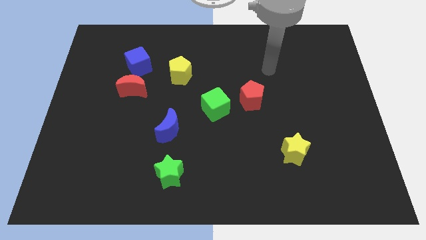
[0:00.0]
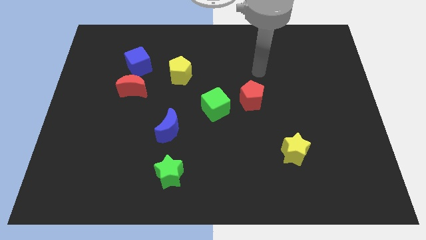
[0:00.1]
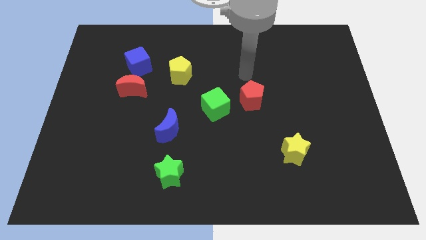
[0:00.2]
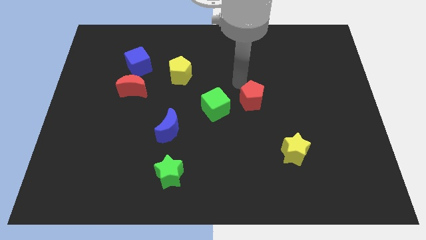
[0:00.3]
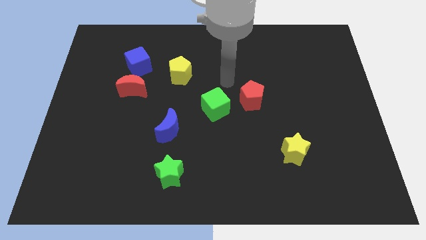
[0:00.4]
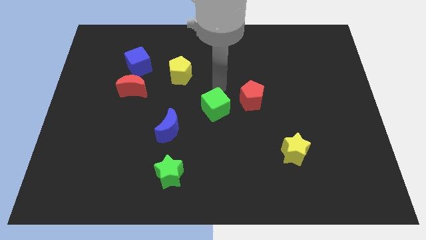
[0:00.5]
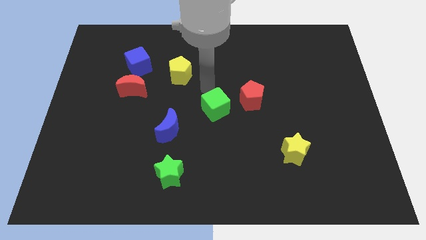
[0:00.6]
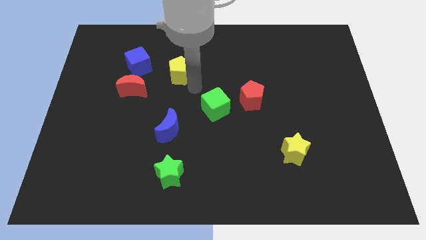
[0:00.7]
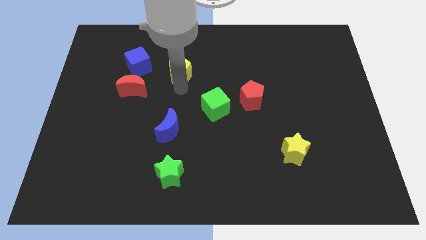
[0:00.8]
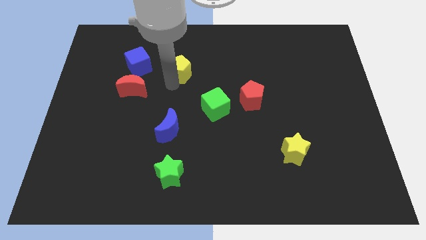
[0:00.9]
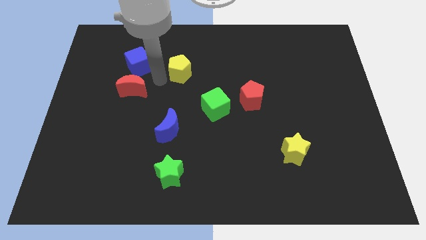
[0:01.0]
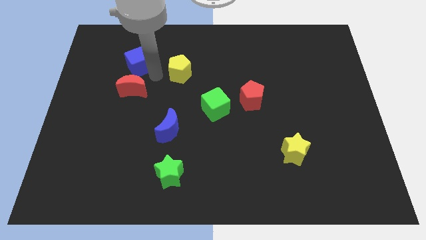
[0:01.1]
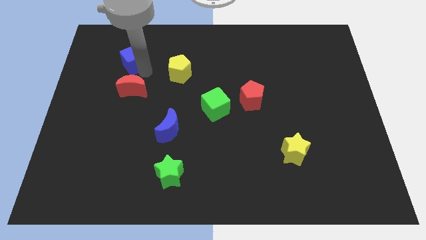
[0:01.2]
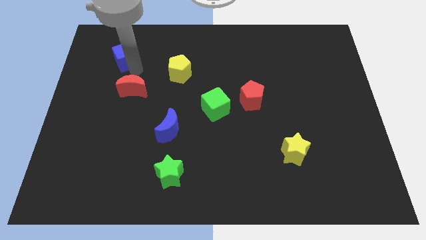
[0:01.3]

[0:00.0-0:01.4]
pull the red moon apart from the blue cube

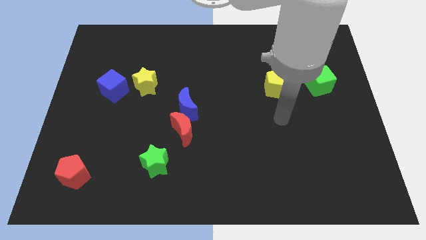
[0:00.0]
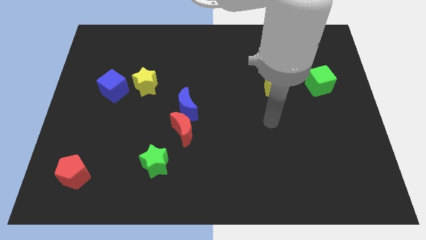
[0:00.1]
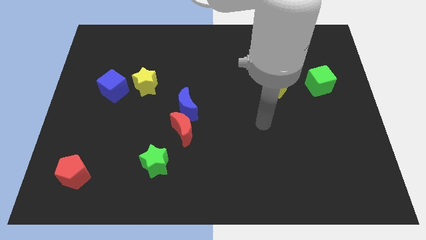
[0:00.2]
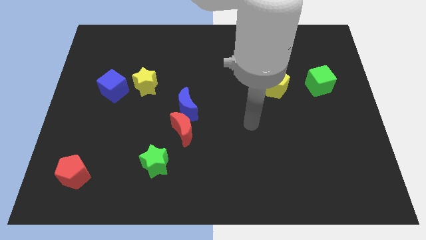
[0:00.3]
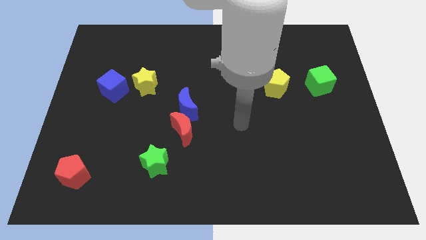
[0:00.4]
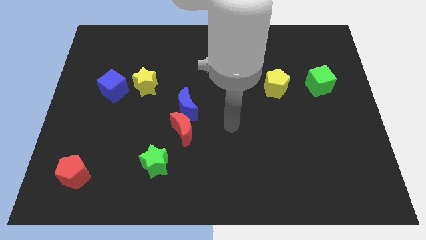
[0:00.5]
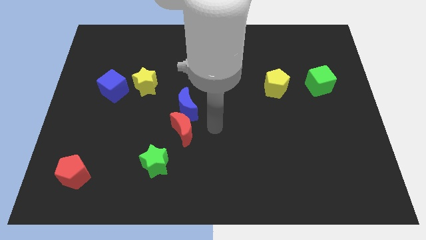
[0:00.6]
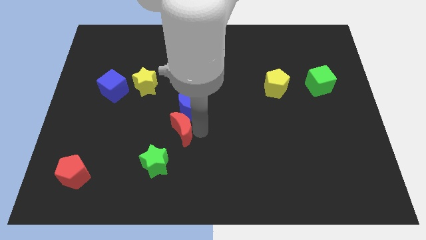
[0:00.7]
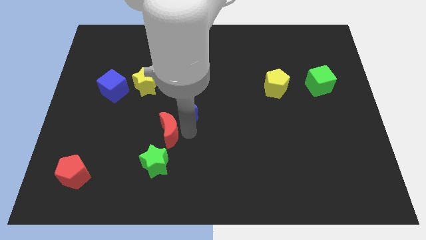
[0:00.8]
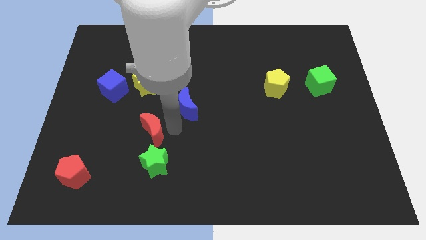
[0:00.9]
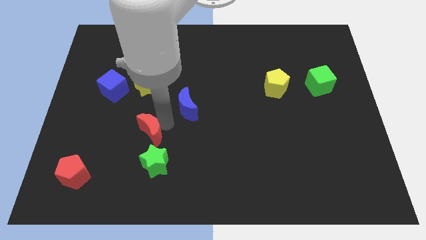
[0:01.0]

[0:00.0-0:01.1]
separate the blue moon from the red moon

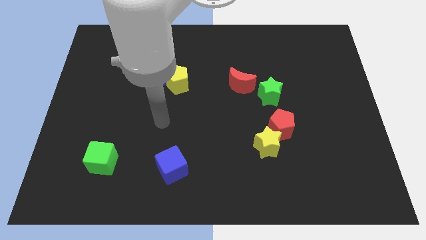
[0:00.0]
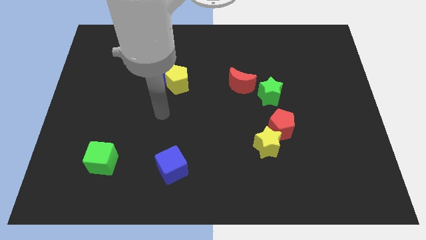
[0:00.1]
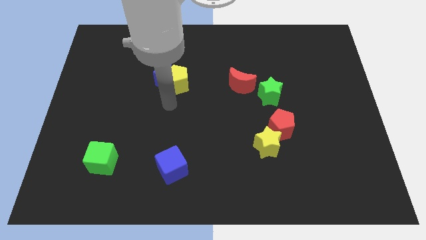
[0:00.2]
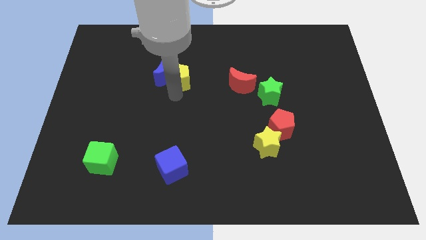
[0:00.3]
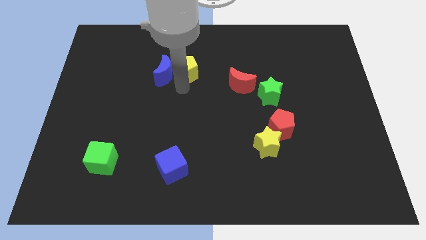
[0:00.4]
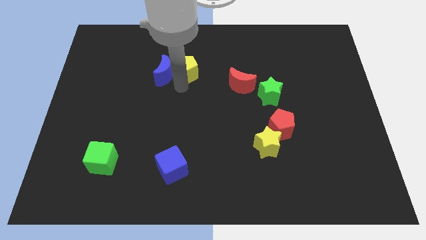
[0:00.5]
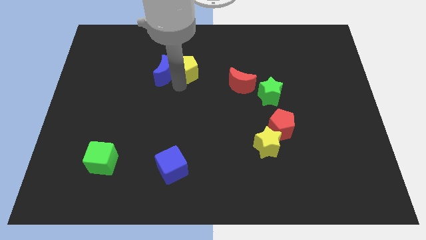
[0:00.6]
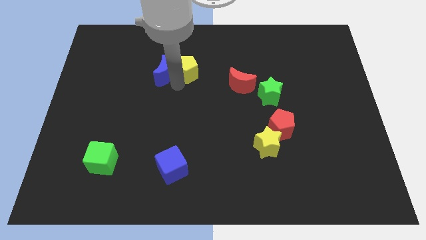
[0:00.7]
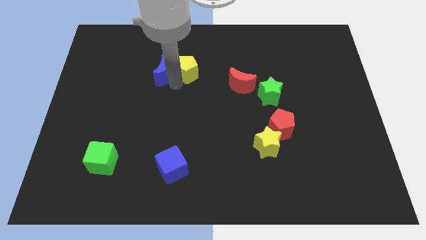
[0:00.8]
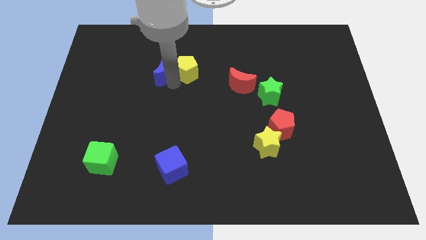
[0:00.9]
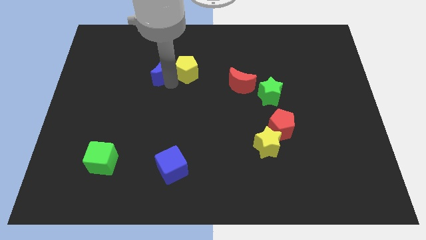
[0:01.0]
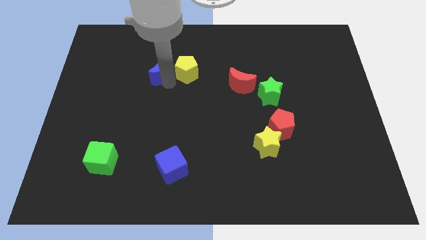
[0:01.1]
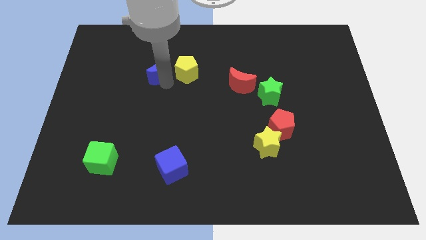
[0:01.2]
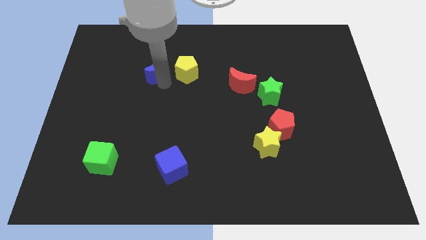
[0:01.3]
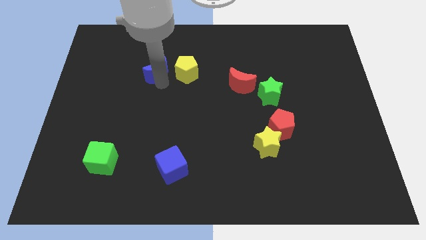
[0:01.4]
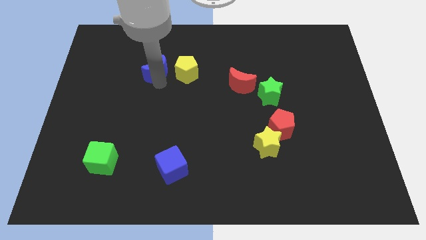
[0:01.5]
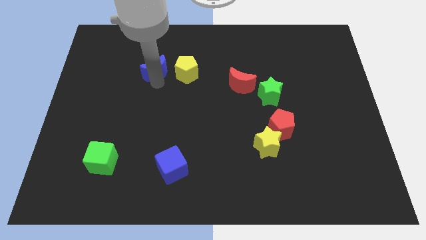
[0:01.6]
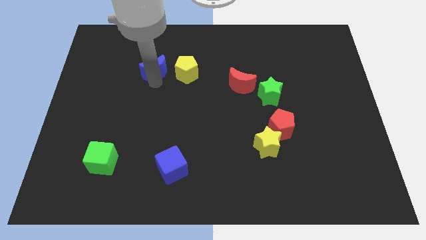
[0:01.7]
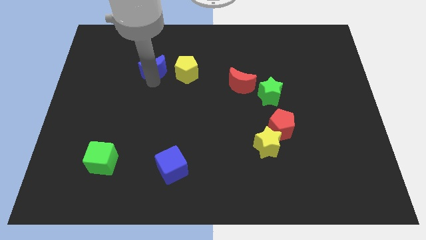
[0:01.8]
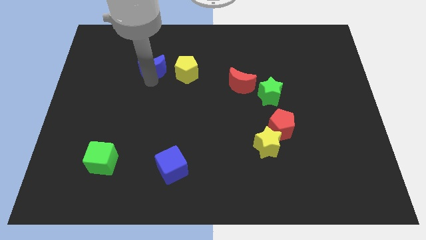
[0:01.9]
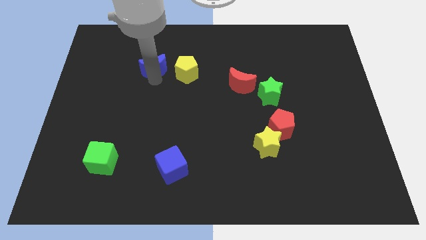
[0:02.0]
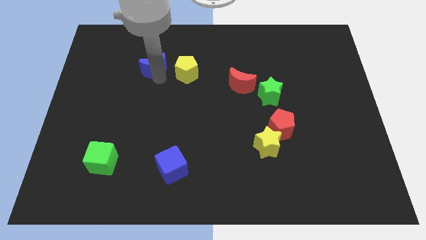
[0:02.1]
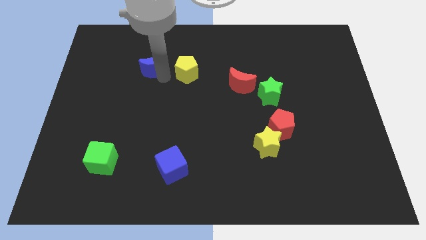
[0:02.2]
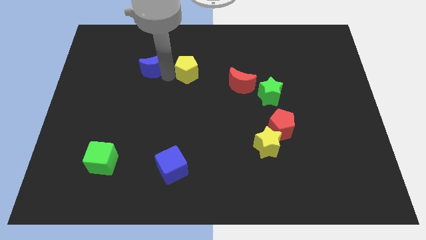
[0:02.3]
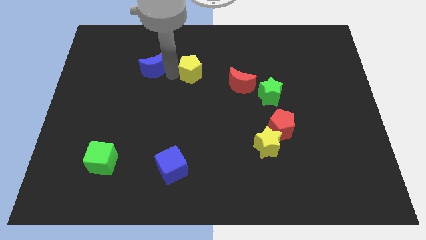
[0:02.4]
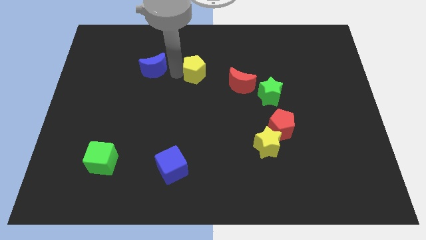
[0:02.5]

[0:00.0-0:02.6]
separate the blue moon from the yellow pentagon

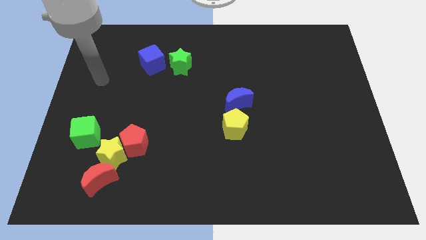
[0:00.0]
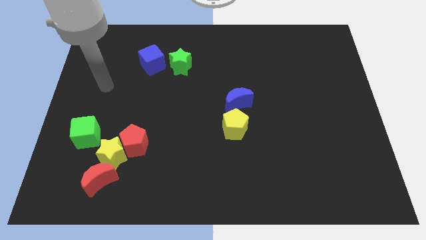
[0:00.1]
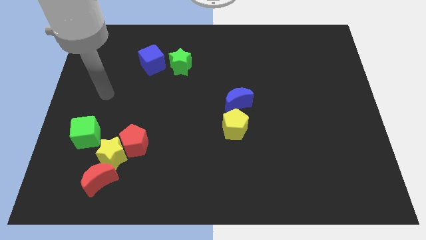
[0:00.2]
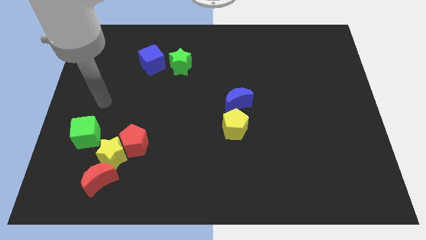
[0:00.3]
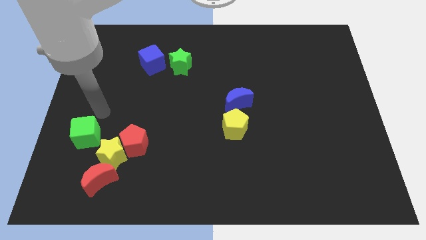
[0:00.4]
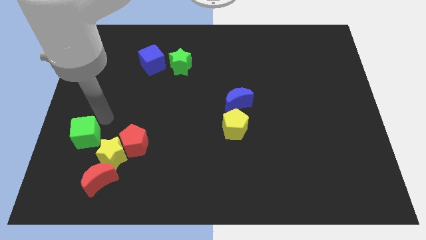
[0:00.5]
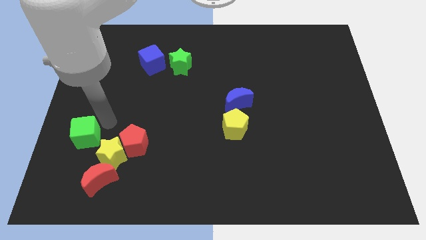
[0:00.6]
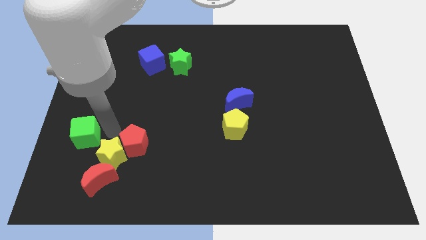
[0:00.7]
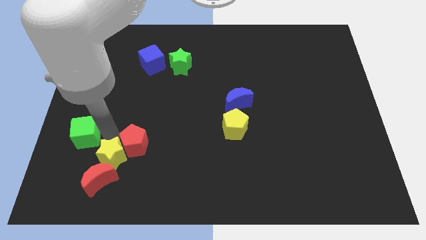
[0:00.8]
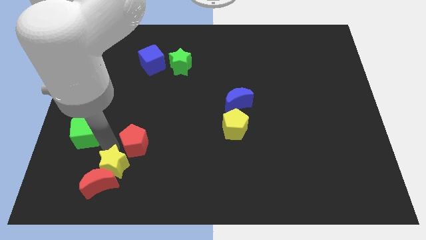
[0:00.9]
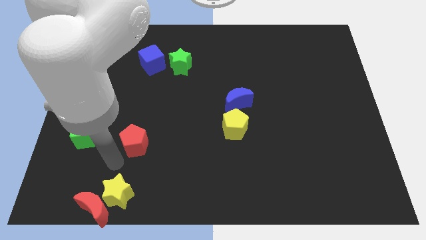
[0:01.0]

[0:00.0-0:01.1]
pull the red pentagon apart from the yellow star

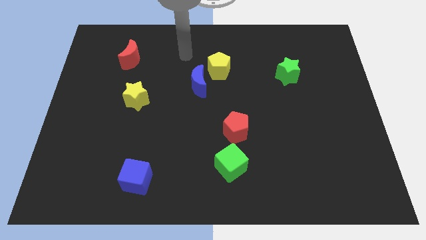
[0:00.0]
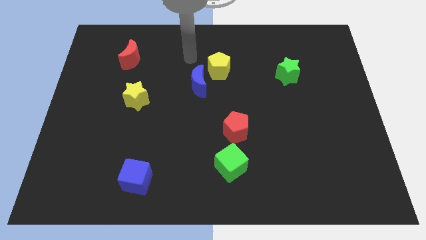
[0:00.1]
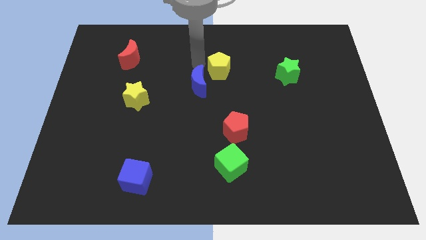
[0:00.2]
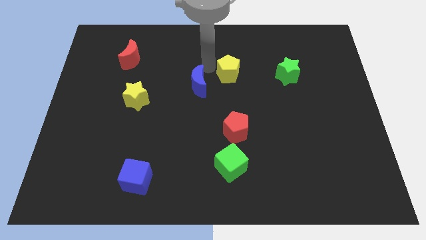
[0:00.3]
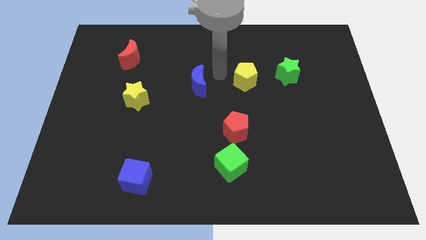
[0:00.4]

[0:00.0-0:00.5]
pull the blue moon apart from the yellow pentagon

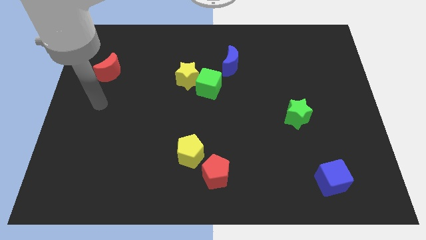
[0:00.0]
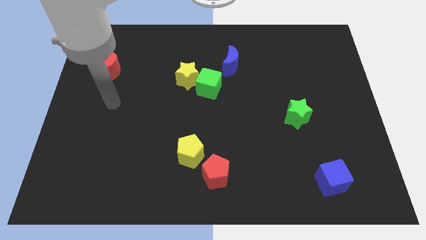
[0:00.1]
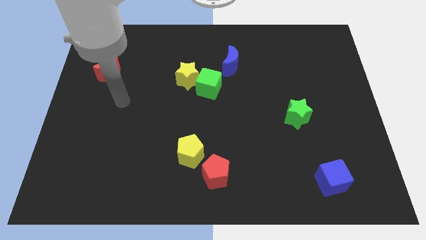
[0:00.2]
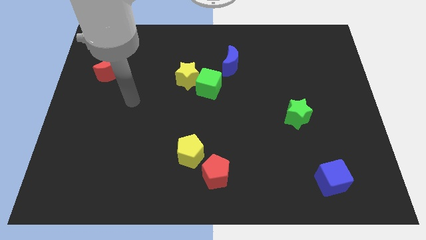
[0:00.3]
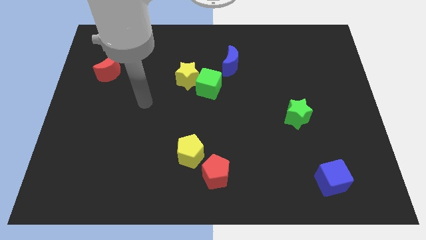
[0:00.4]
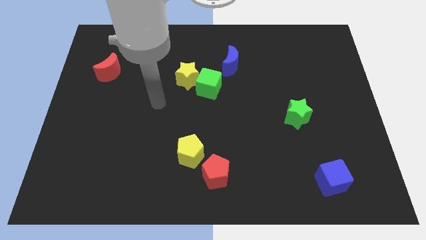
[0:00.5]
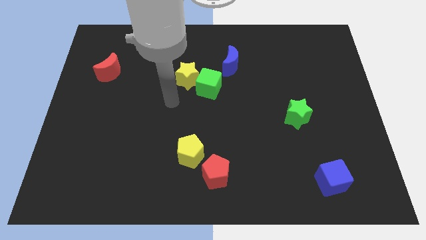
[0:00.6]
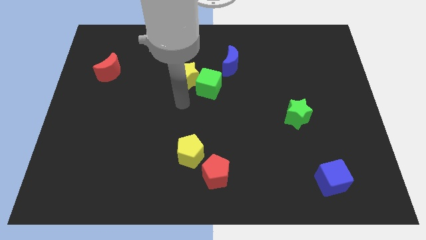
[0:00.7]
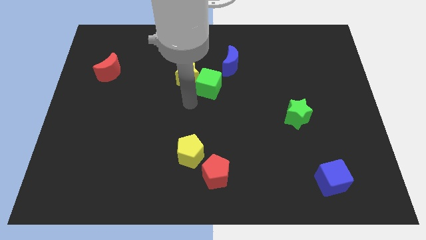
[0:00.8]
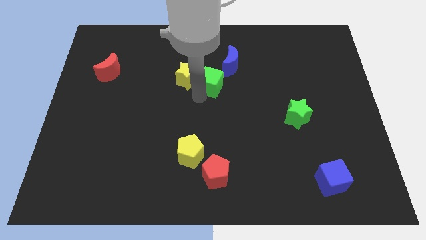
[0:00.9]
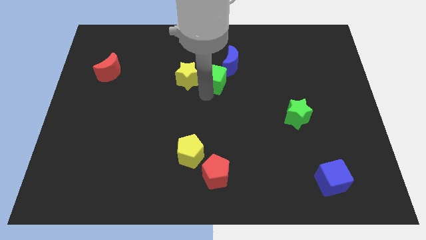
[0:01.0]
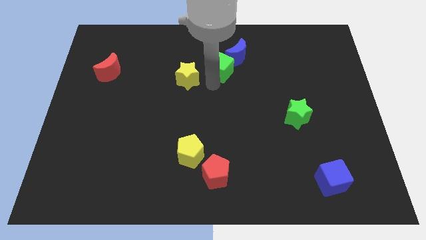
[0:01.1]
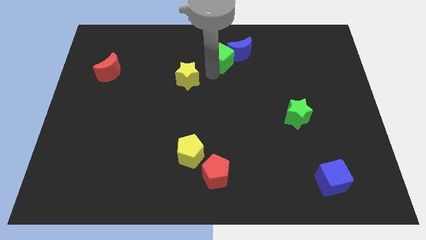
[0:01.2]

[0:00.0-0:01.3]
separate the yellow star from the green cube

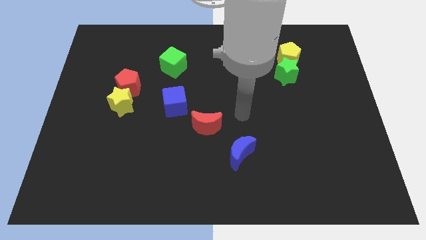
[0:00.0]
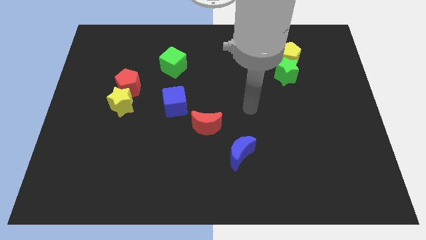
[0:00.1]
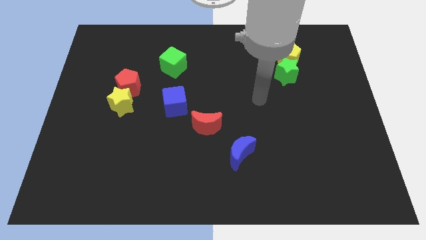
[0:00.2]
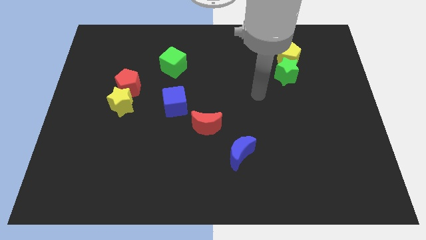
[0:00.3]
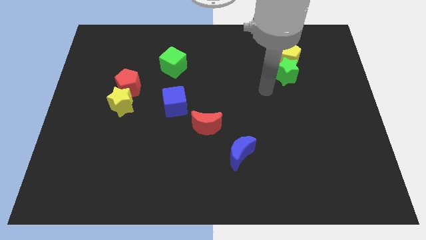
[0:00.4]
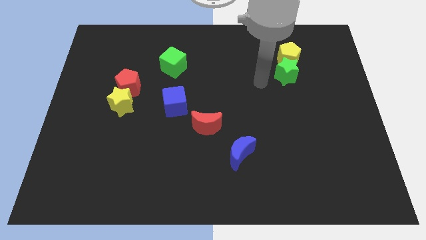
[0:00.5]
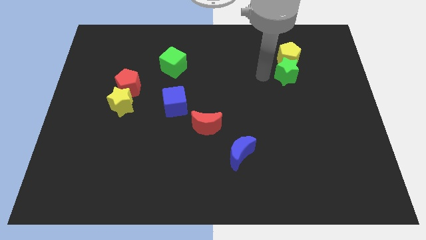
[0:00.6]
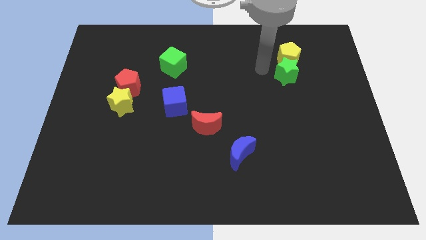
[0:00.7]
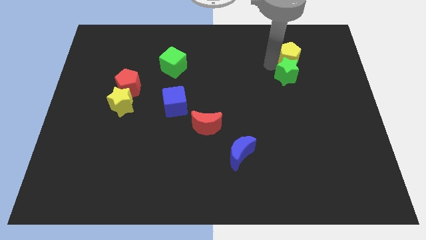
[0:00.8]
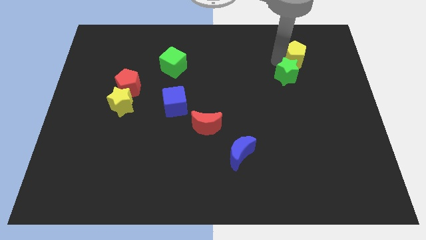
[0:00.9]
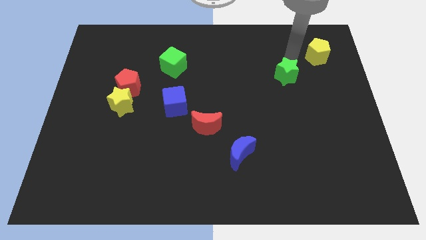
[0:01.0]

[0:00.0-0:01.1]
separate the green star from the yellow pentagon

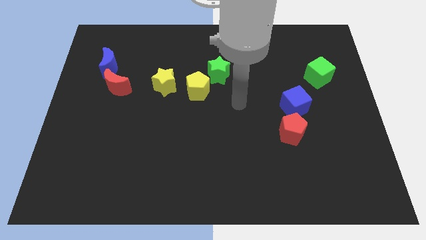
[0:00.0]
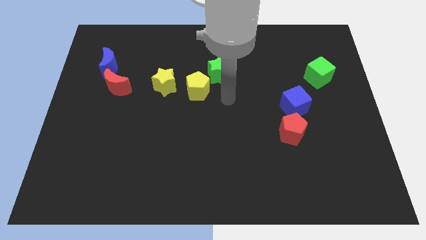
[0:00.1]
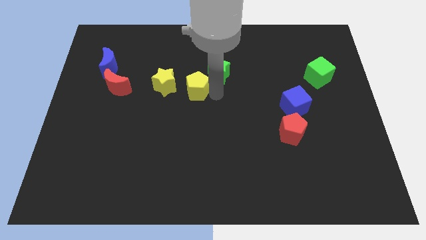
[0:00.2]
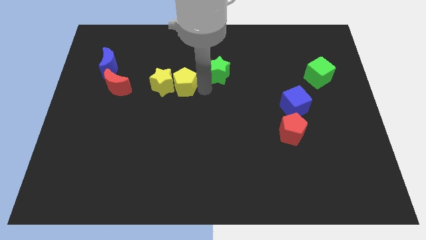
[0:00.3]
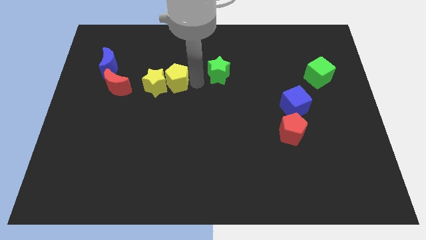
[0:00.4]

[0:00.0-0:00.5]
move the green star away from the yellow pentagon
